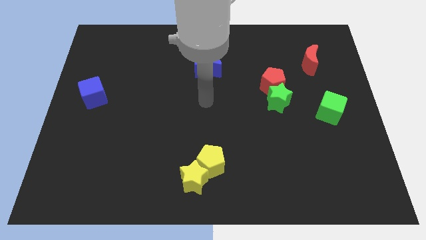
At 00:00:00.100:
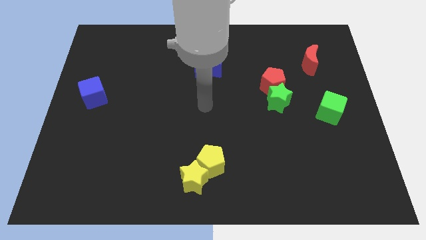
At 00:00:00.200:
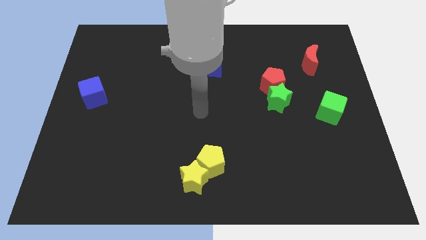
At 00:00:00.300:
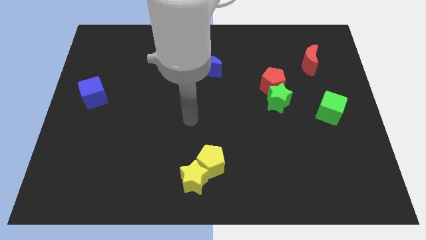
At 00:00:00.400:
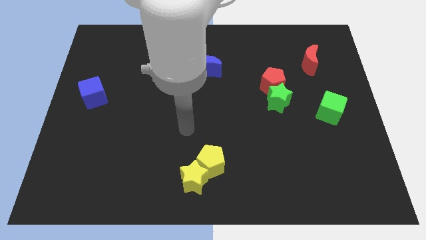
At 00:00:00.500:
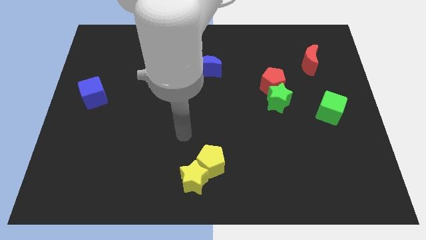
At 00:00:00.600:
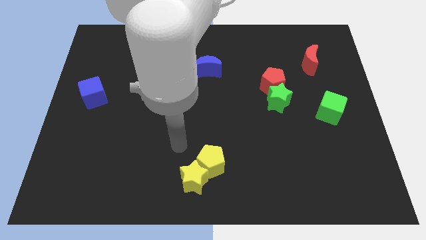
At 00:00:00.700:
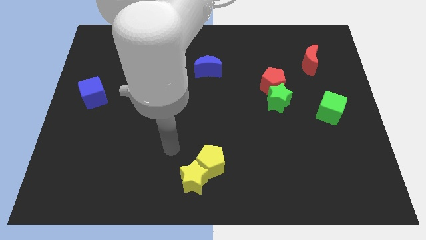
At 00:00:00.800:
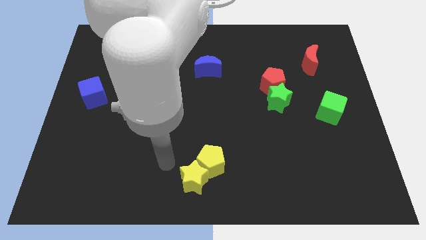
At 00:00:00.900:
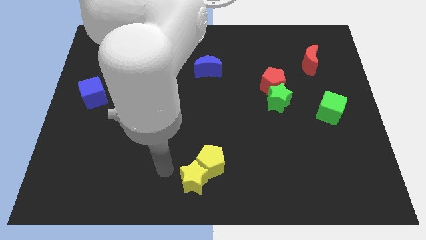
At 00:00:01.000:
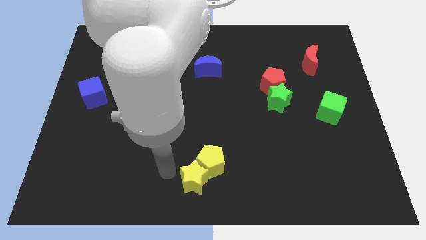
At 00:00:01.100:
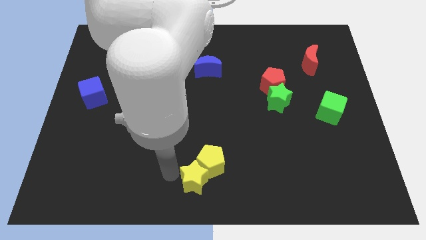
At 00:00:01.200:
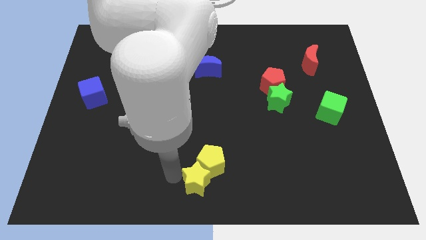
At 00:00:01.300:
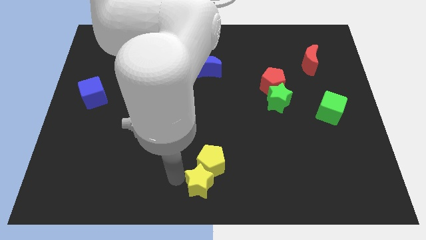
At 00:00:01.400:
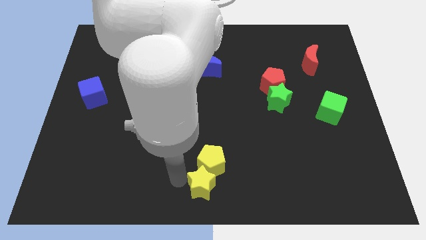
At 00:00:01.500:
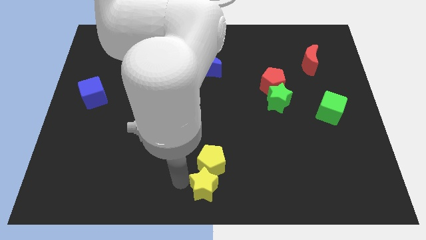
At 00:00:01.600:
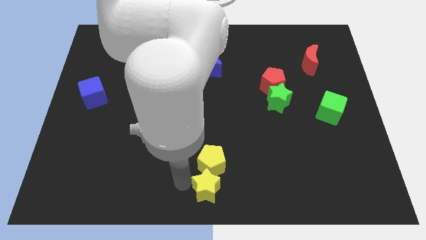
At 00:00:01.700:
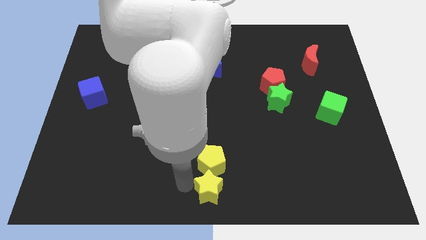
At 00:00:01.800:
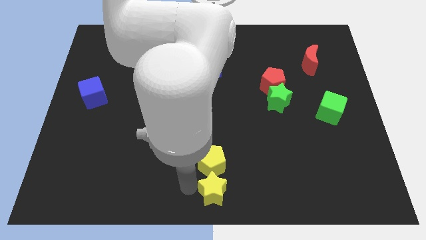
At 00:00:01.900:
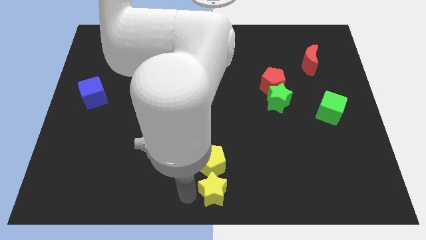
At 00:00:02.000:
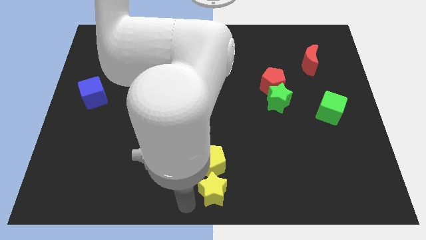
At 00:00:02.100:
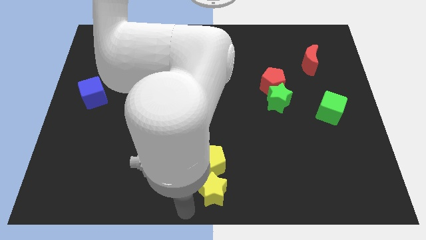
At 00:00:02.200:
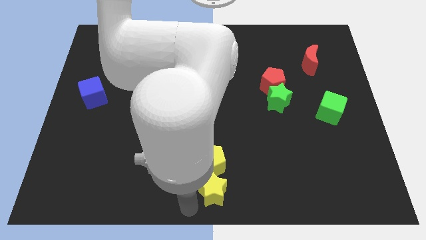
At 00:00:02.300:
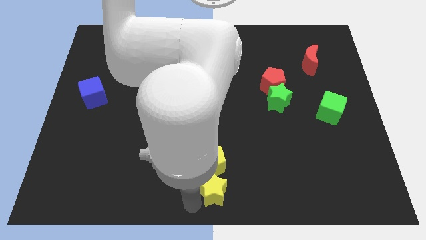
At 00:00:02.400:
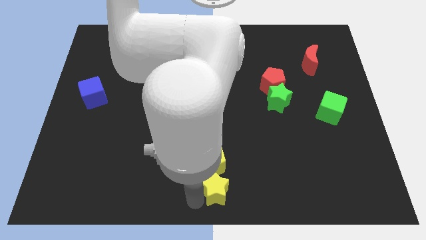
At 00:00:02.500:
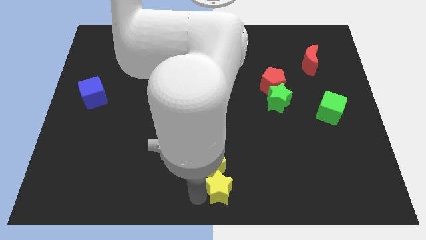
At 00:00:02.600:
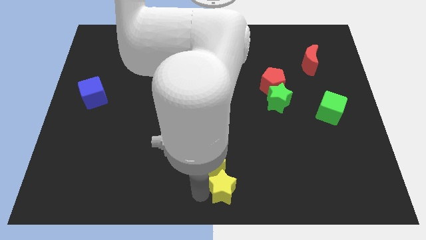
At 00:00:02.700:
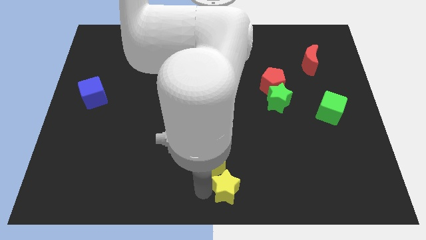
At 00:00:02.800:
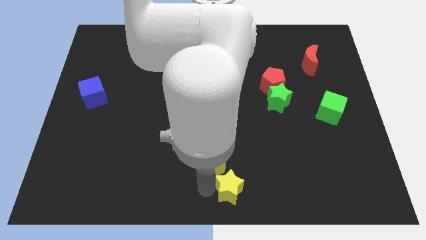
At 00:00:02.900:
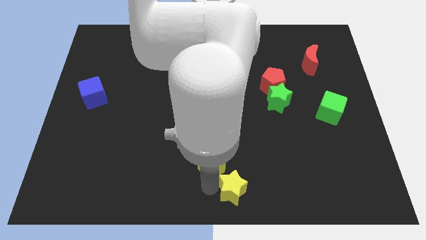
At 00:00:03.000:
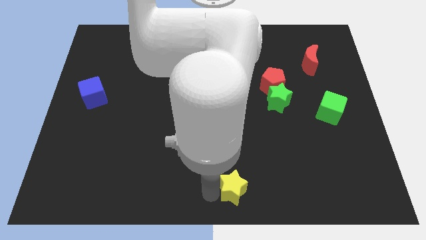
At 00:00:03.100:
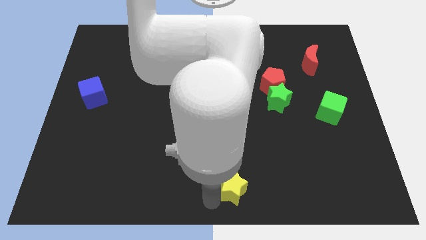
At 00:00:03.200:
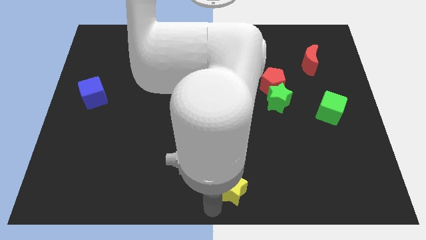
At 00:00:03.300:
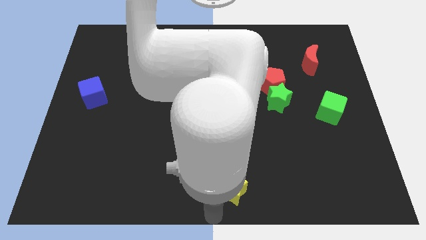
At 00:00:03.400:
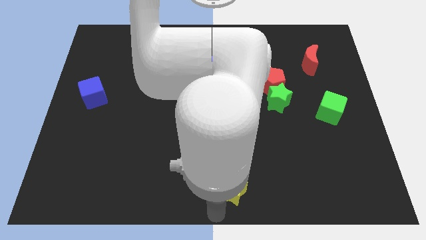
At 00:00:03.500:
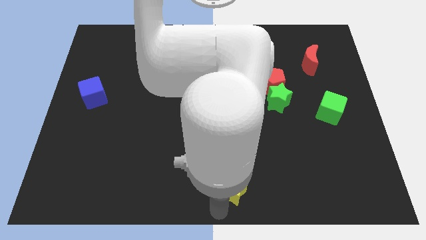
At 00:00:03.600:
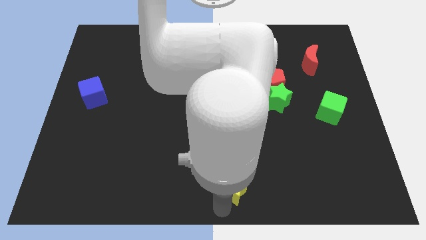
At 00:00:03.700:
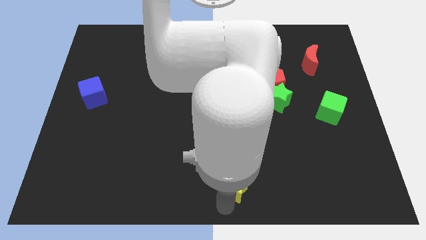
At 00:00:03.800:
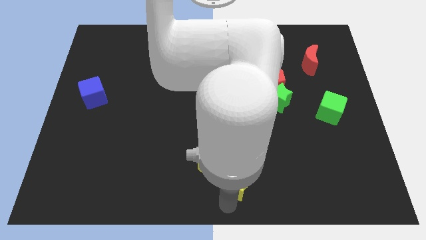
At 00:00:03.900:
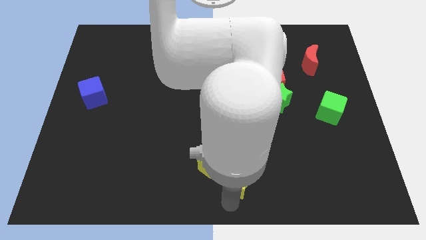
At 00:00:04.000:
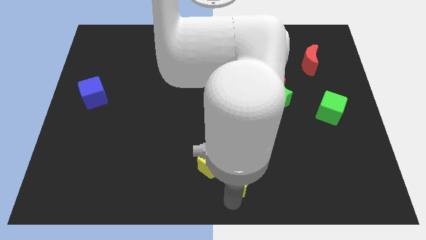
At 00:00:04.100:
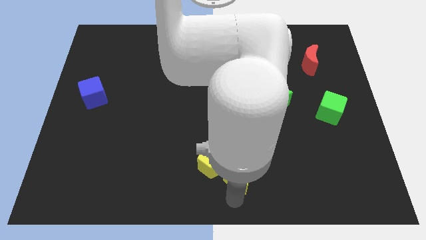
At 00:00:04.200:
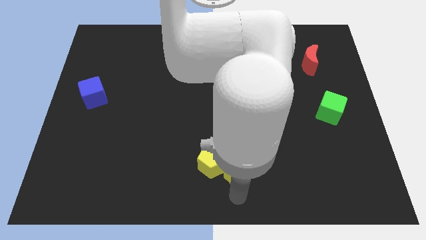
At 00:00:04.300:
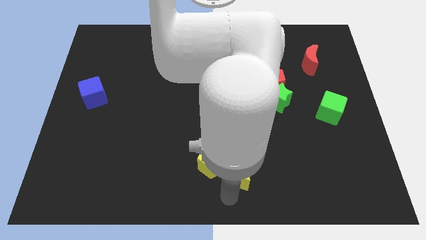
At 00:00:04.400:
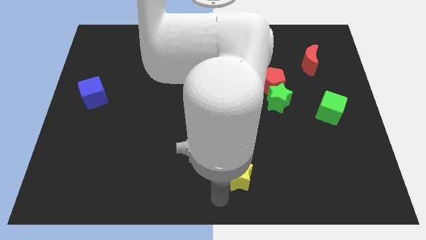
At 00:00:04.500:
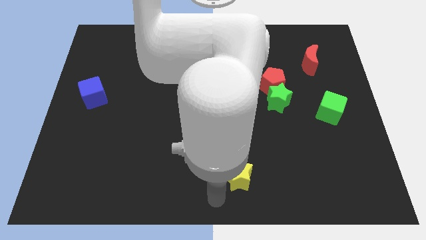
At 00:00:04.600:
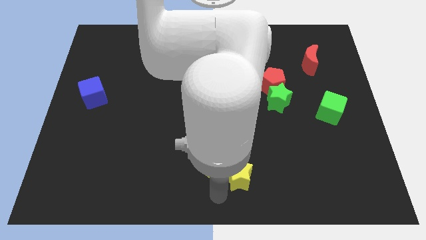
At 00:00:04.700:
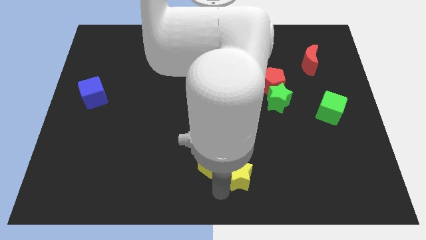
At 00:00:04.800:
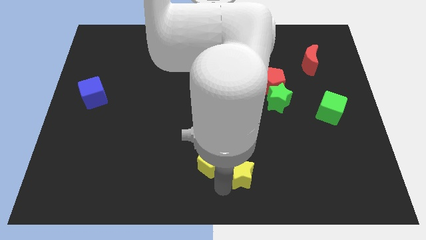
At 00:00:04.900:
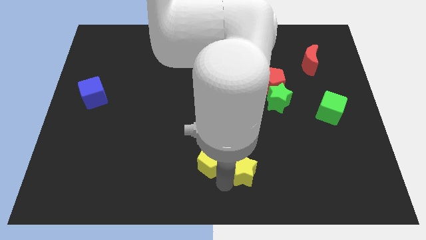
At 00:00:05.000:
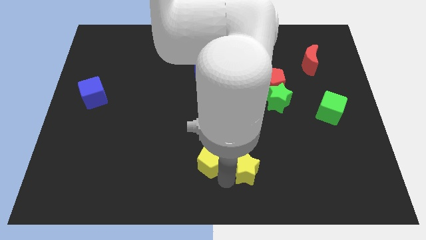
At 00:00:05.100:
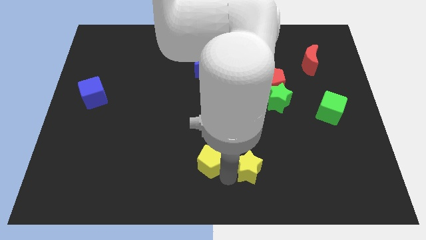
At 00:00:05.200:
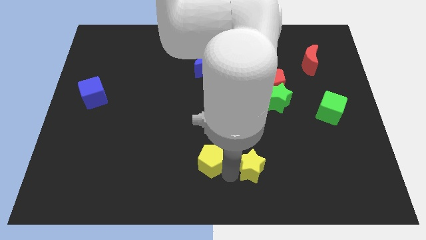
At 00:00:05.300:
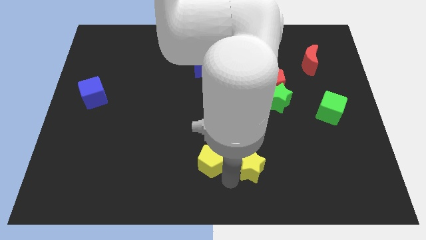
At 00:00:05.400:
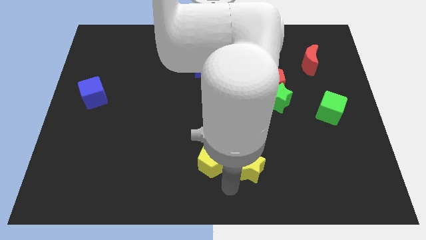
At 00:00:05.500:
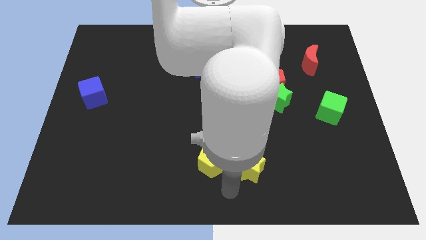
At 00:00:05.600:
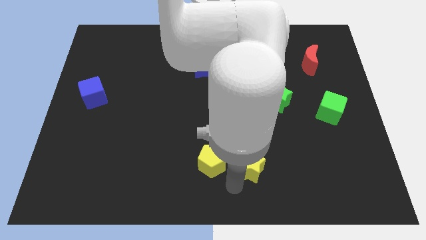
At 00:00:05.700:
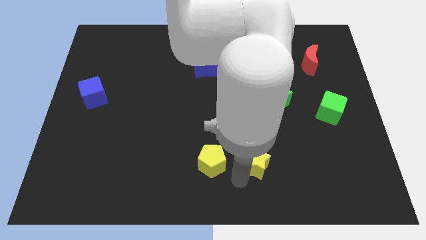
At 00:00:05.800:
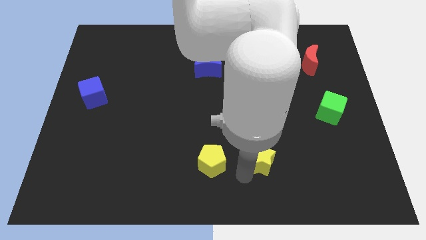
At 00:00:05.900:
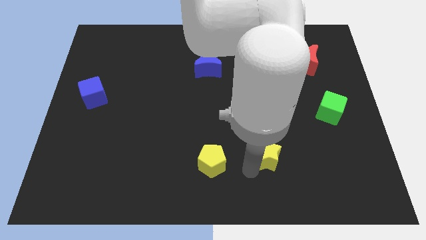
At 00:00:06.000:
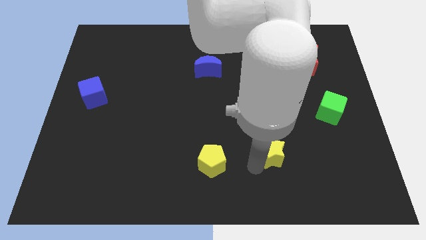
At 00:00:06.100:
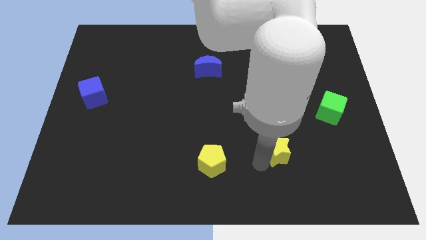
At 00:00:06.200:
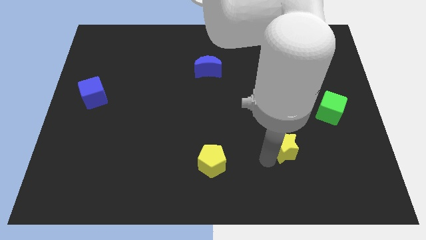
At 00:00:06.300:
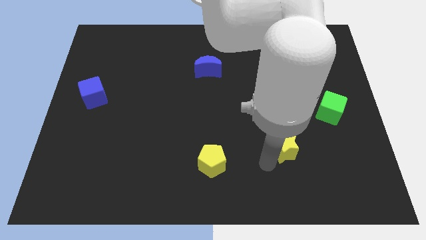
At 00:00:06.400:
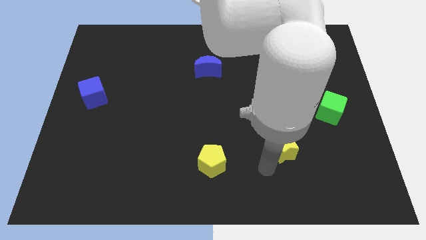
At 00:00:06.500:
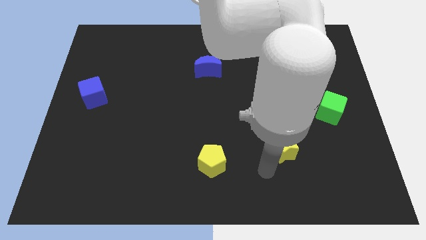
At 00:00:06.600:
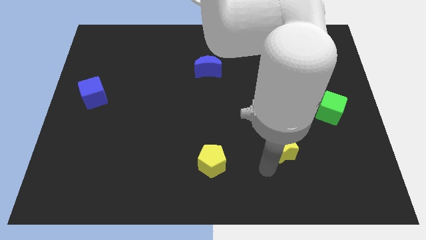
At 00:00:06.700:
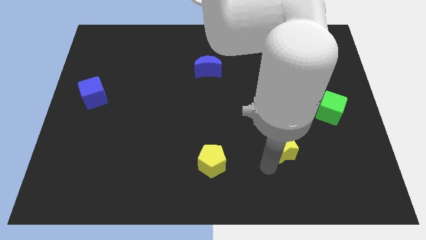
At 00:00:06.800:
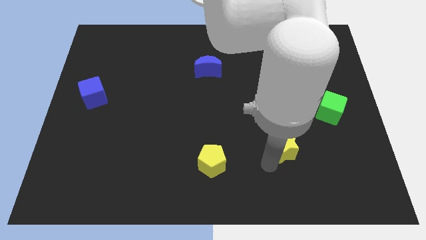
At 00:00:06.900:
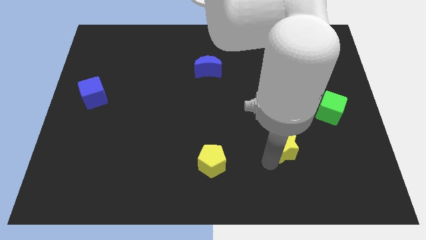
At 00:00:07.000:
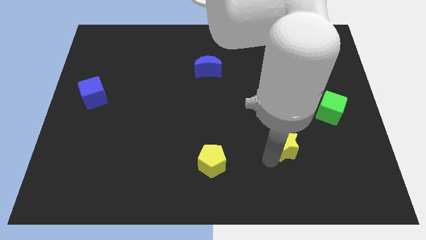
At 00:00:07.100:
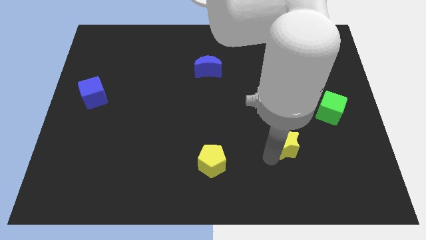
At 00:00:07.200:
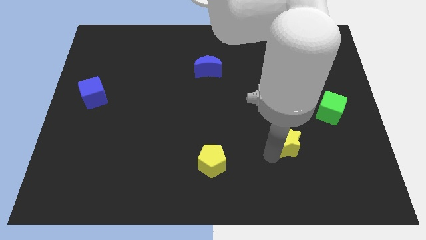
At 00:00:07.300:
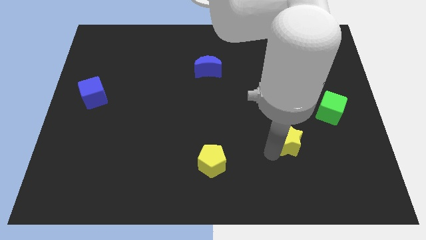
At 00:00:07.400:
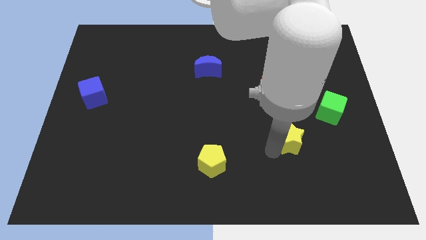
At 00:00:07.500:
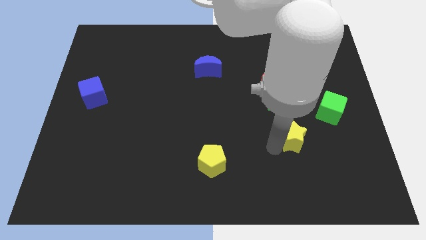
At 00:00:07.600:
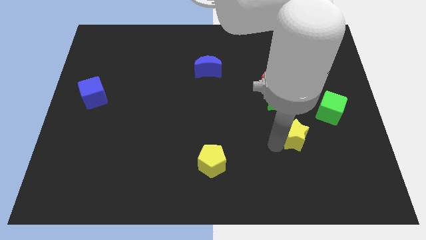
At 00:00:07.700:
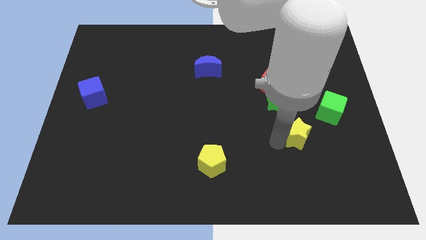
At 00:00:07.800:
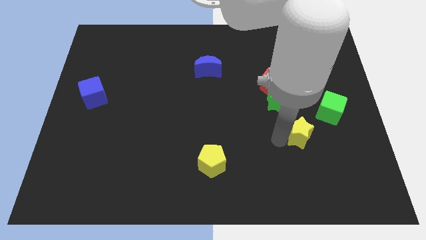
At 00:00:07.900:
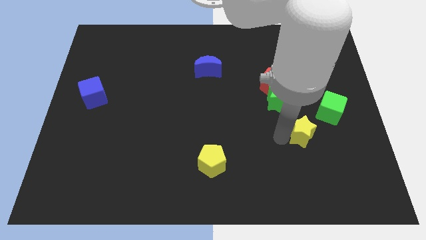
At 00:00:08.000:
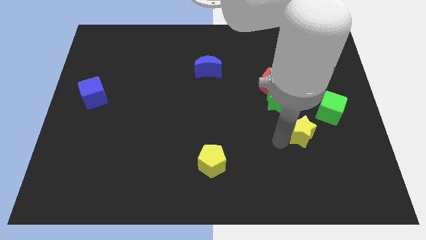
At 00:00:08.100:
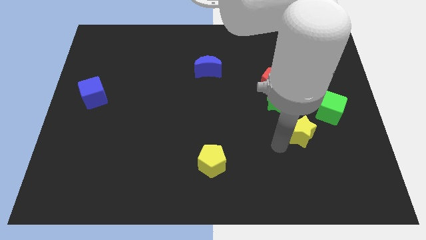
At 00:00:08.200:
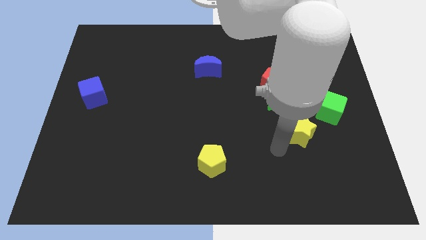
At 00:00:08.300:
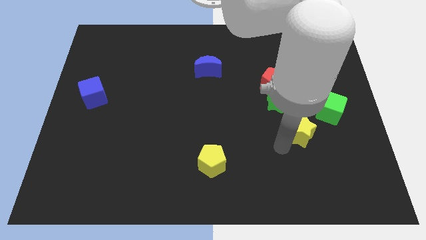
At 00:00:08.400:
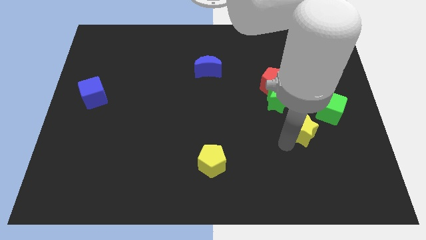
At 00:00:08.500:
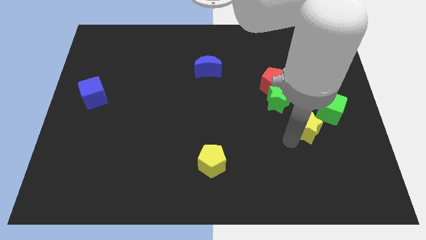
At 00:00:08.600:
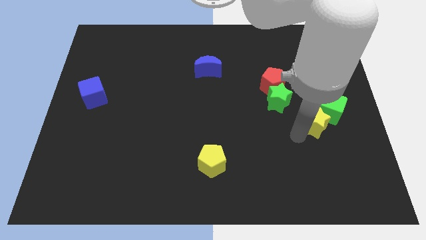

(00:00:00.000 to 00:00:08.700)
put the yellow star to the green cube
